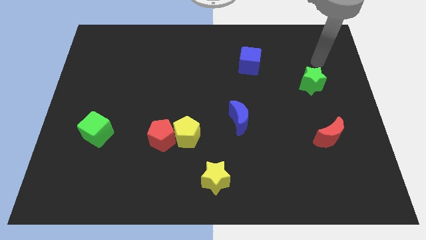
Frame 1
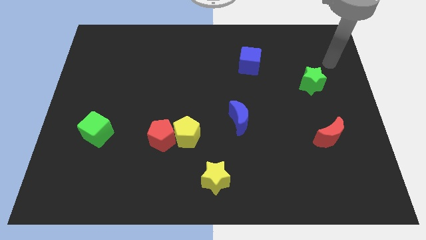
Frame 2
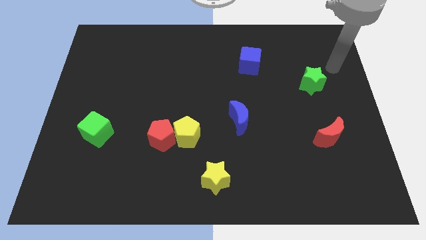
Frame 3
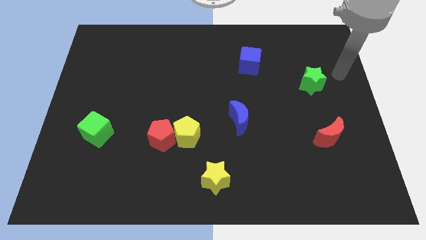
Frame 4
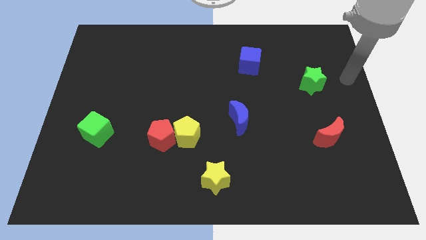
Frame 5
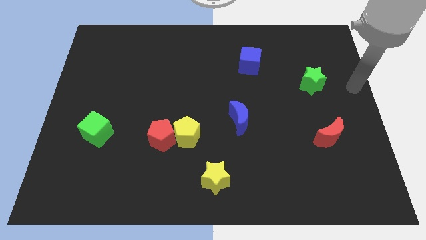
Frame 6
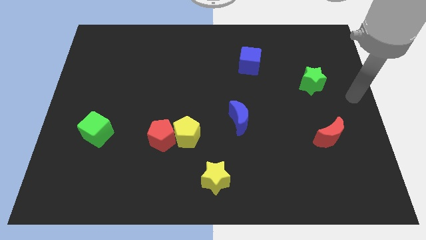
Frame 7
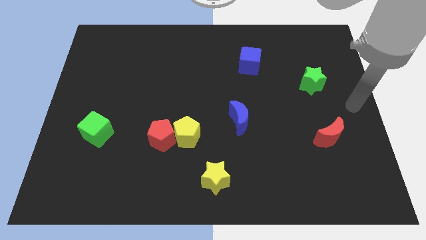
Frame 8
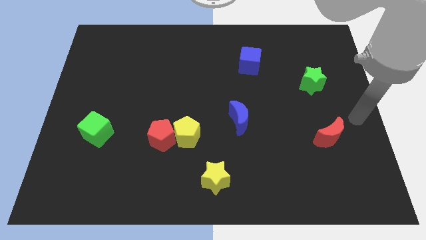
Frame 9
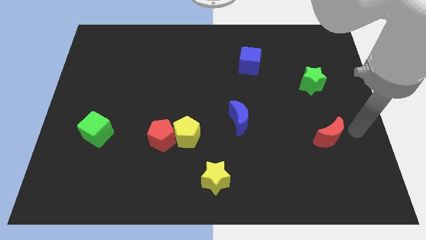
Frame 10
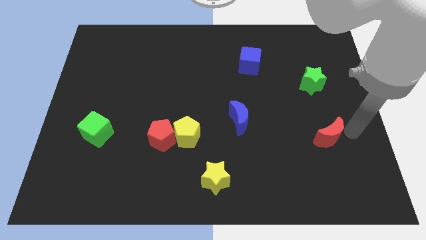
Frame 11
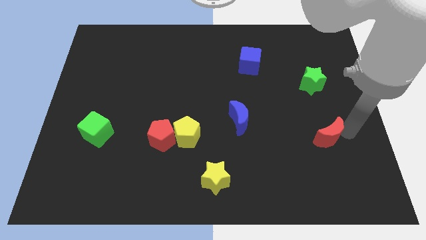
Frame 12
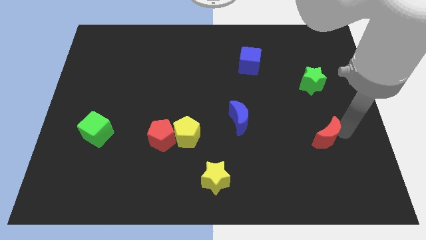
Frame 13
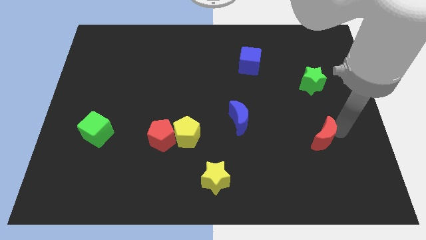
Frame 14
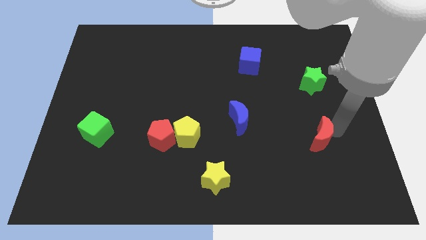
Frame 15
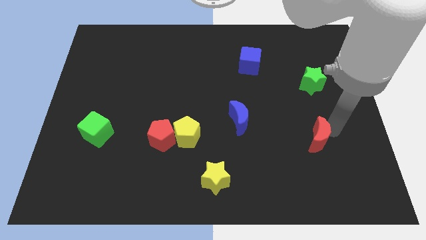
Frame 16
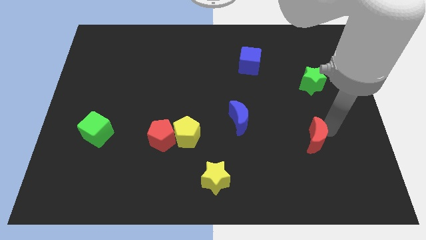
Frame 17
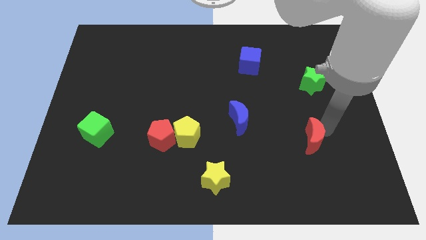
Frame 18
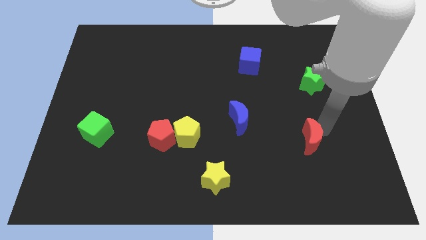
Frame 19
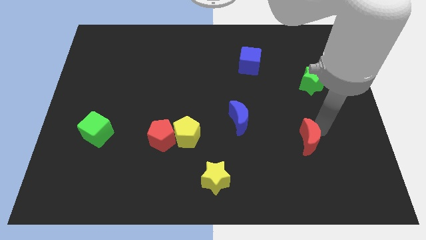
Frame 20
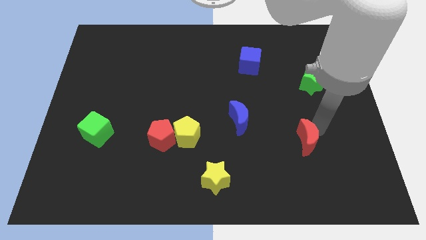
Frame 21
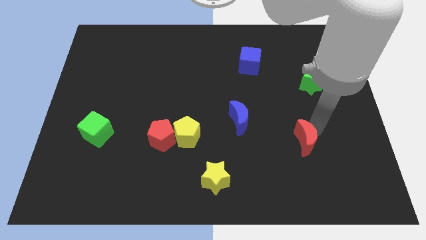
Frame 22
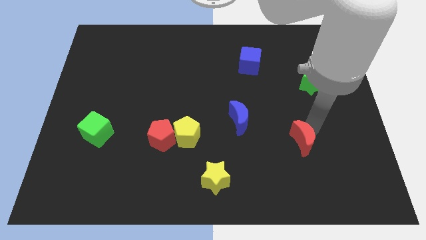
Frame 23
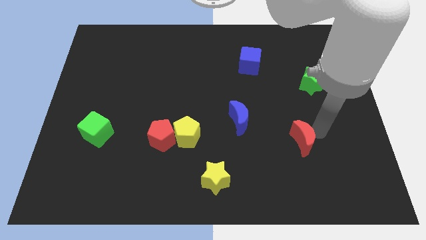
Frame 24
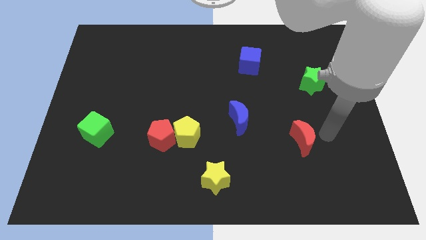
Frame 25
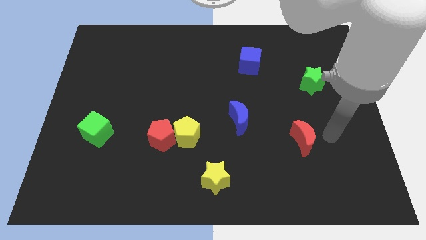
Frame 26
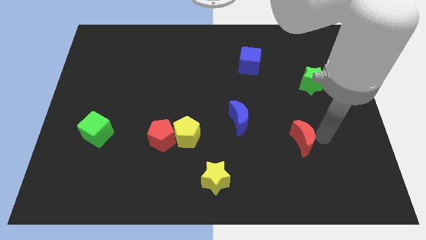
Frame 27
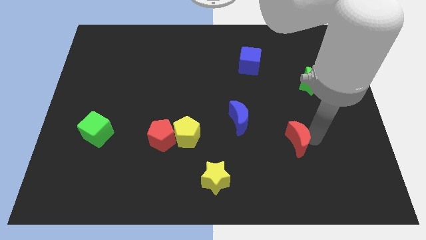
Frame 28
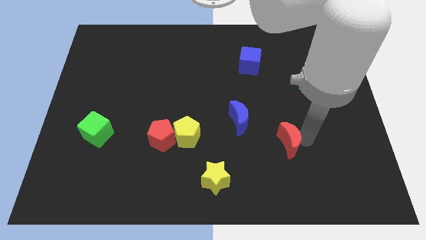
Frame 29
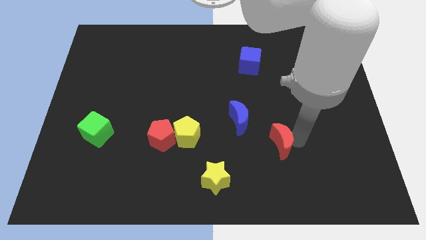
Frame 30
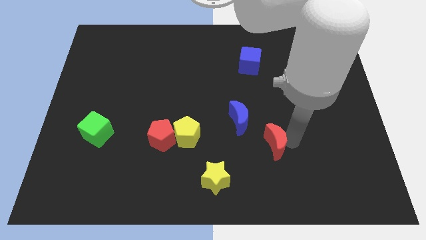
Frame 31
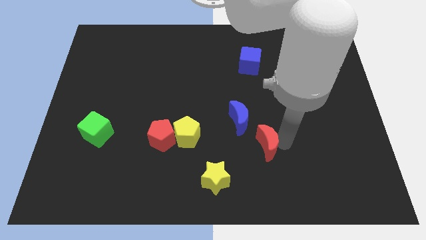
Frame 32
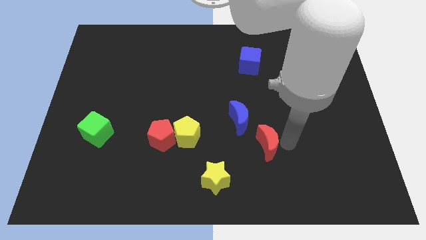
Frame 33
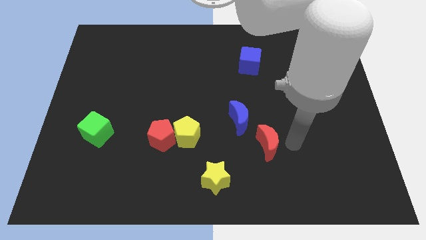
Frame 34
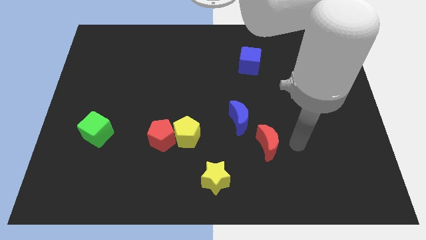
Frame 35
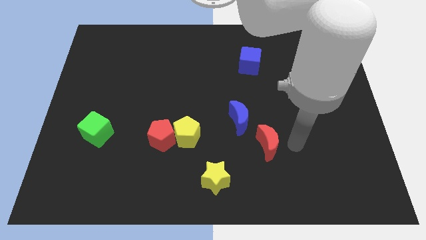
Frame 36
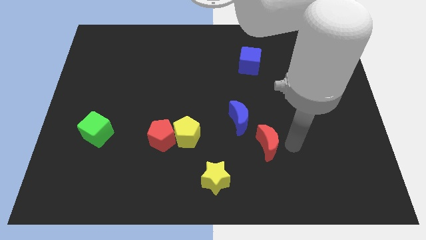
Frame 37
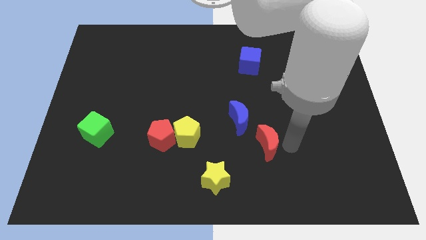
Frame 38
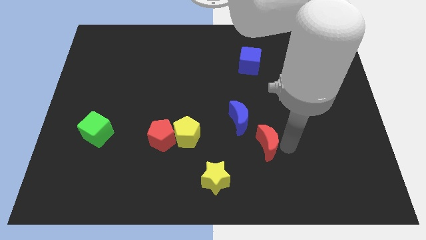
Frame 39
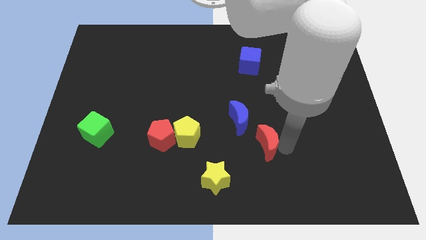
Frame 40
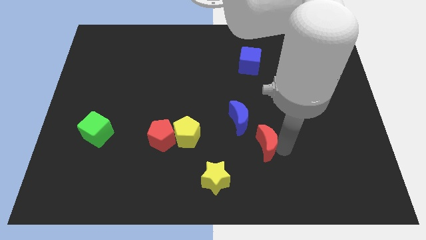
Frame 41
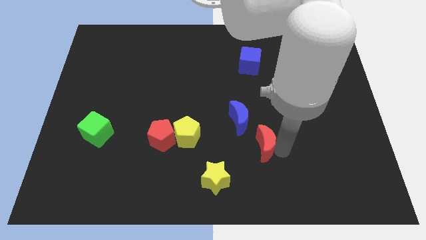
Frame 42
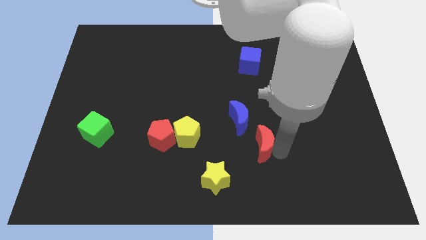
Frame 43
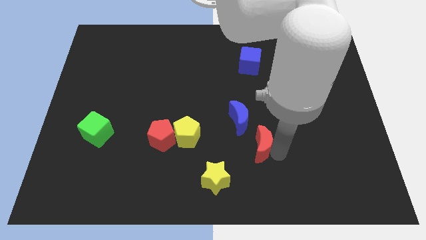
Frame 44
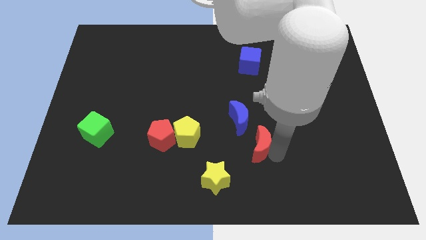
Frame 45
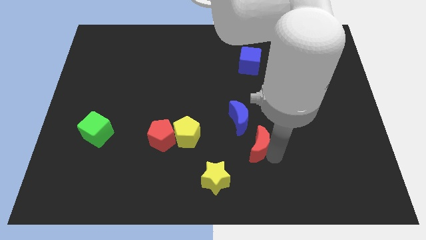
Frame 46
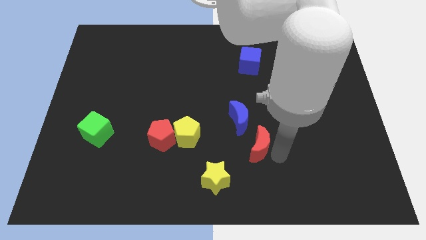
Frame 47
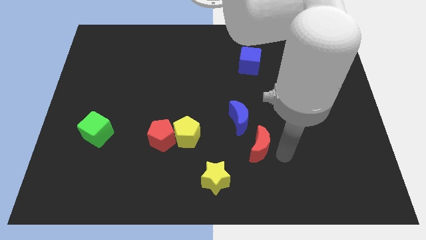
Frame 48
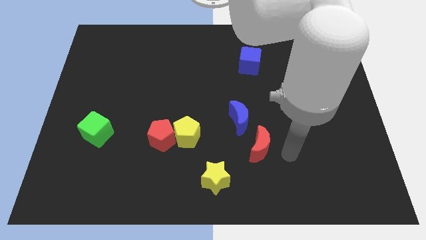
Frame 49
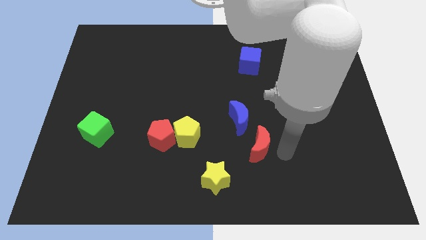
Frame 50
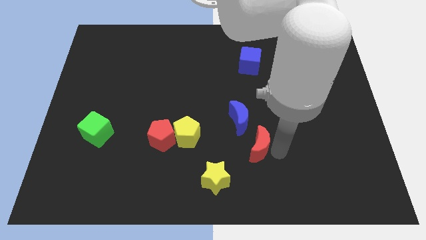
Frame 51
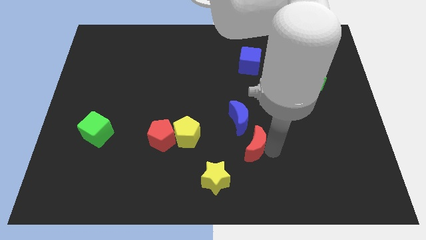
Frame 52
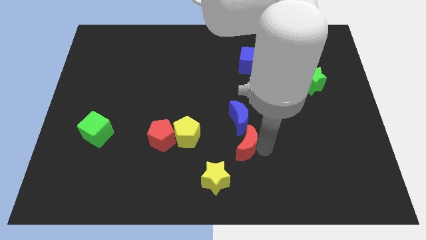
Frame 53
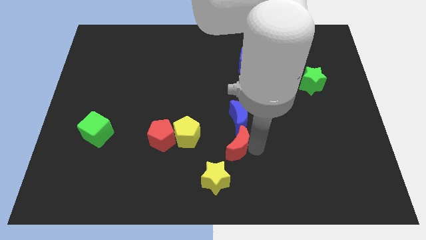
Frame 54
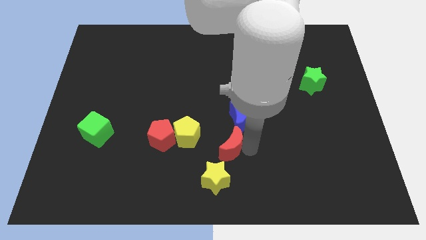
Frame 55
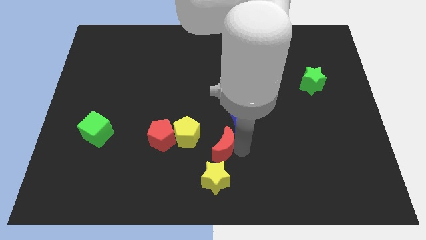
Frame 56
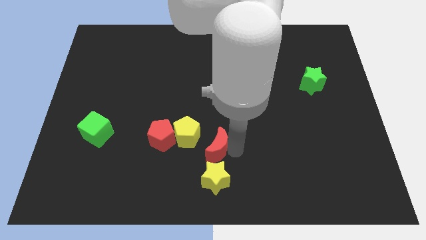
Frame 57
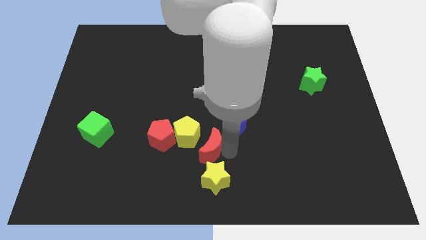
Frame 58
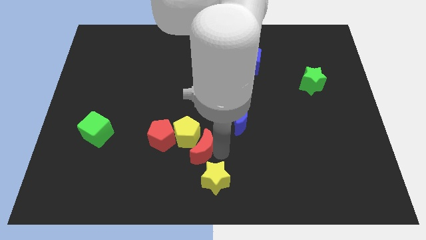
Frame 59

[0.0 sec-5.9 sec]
put the red moon towards the yellow pentagon

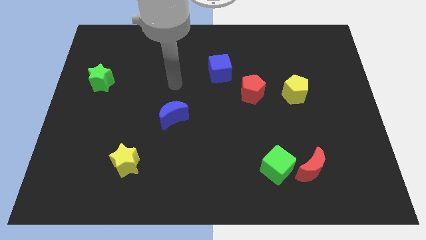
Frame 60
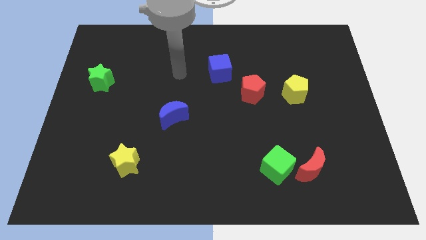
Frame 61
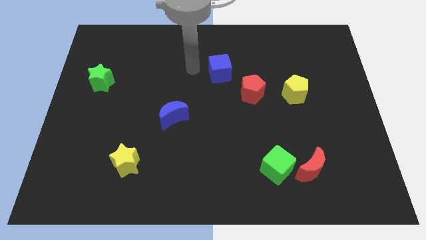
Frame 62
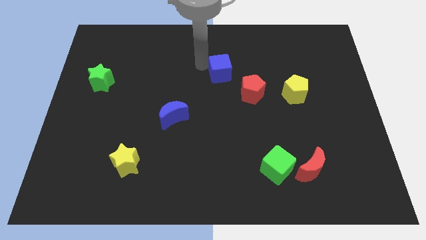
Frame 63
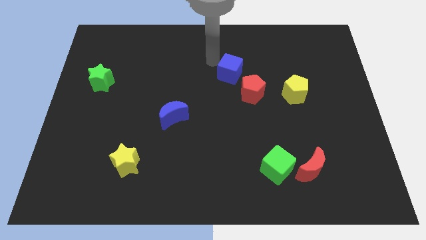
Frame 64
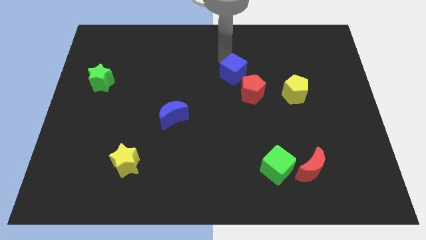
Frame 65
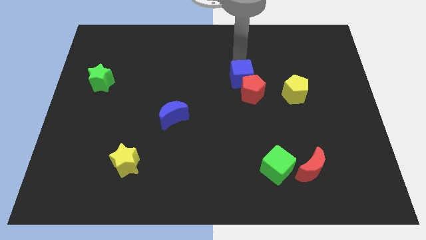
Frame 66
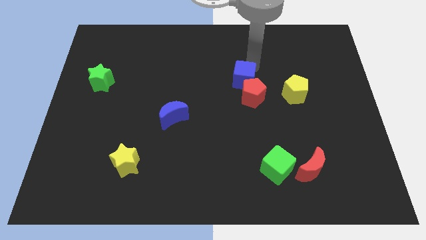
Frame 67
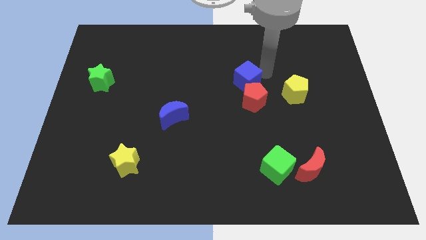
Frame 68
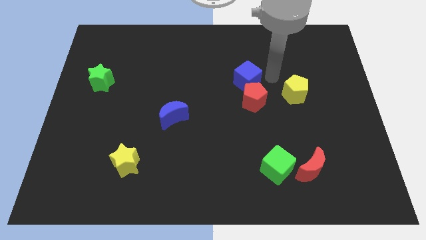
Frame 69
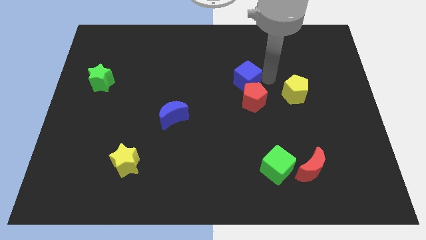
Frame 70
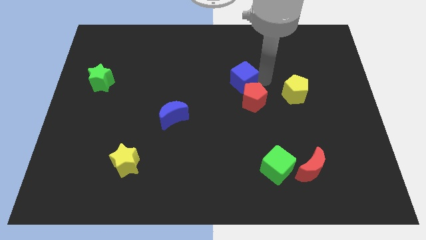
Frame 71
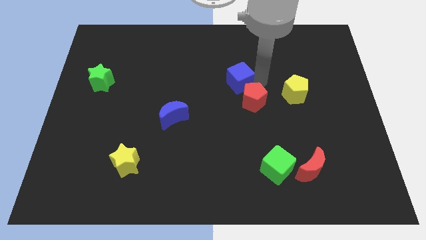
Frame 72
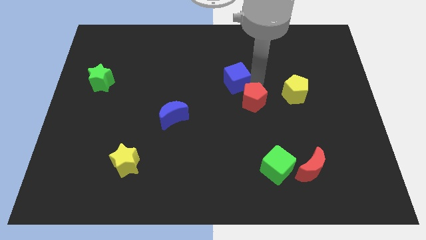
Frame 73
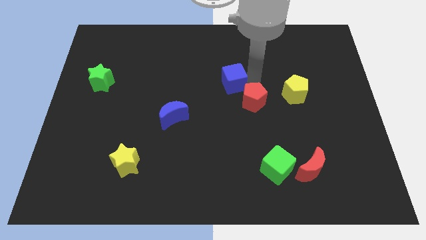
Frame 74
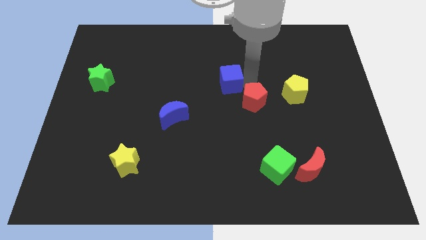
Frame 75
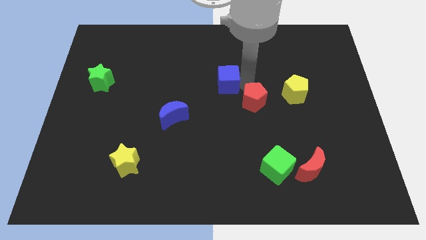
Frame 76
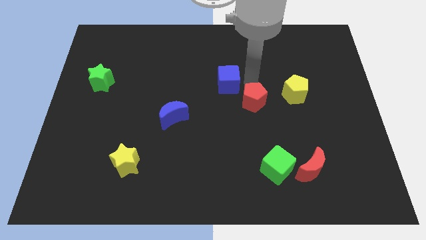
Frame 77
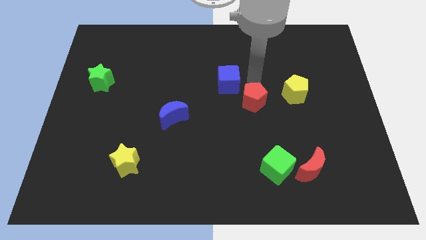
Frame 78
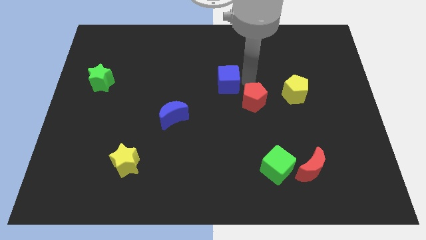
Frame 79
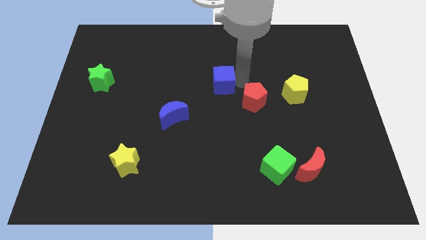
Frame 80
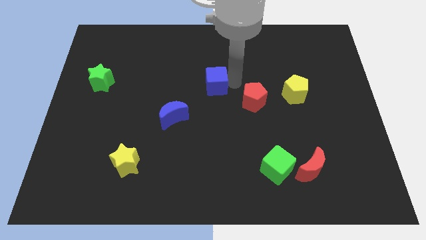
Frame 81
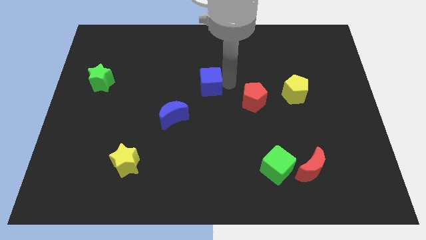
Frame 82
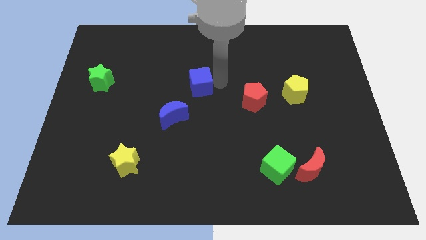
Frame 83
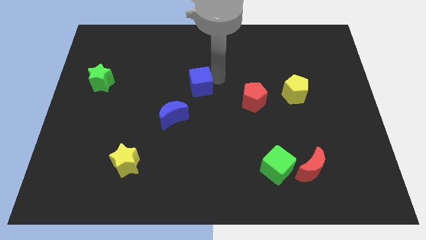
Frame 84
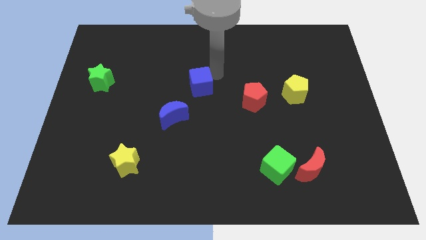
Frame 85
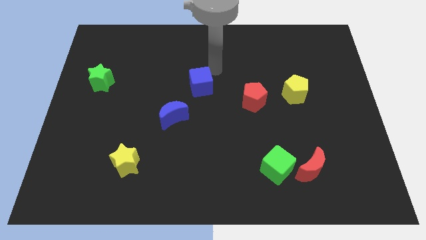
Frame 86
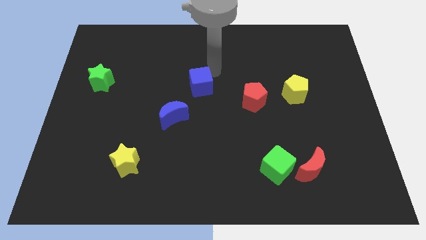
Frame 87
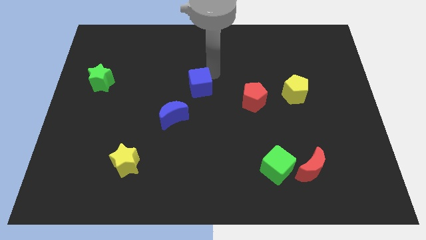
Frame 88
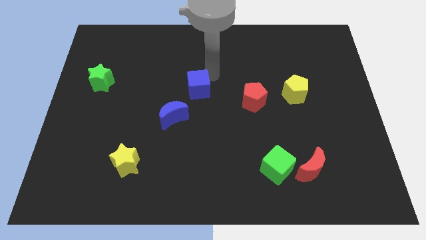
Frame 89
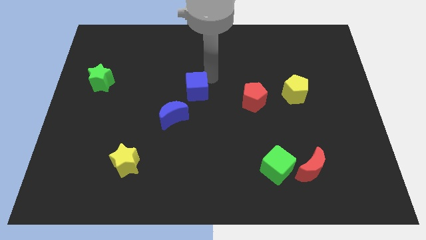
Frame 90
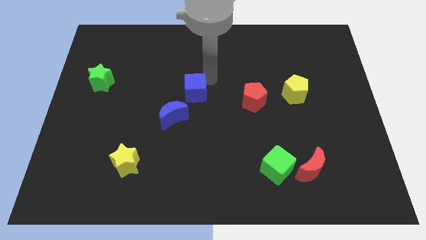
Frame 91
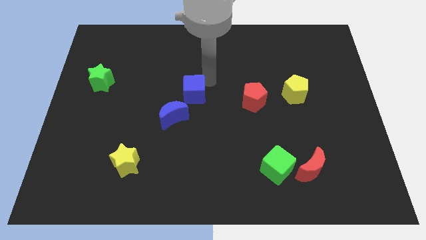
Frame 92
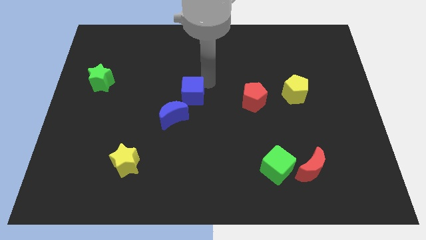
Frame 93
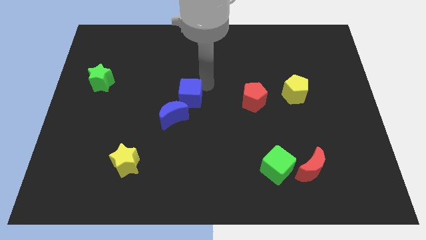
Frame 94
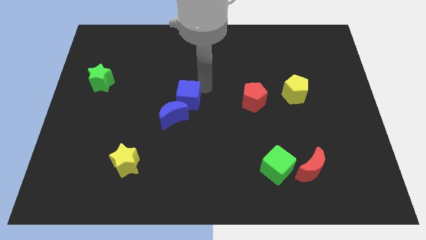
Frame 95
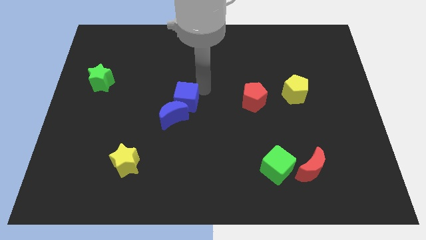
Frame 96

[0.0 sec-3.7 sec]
push the blue cube to the blue moon
